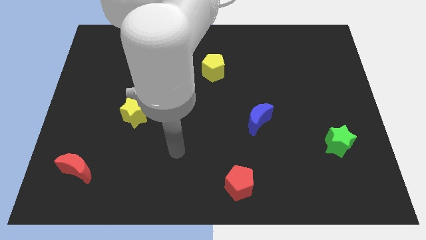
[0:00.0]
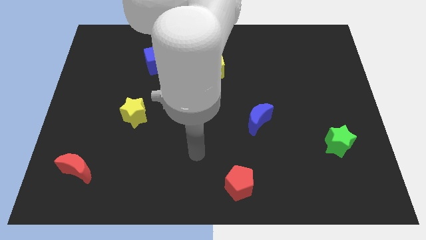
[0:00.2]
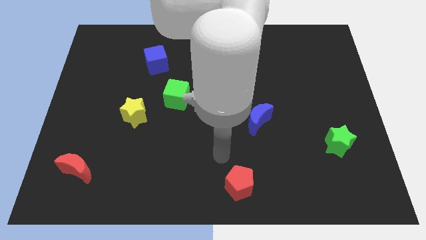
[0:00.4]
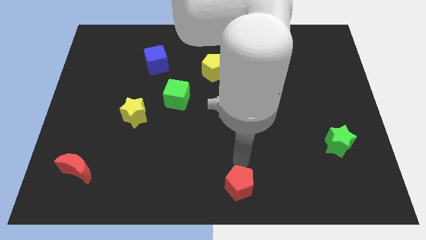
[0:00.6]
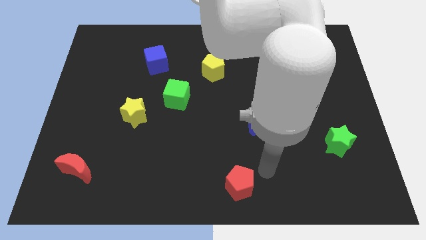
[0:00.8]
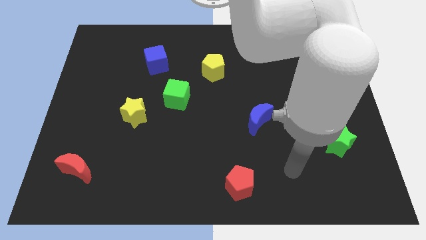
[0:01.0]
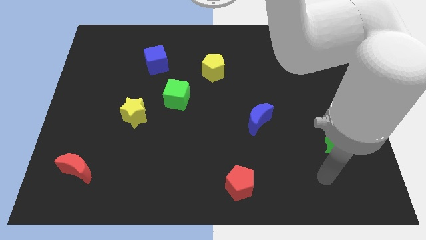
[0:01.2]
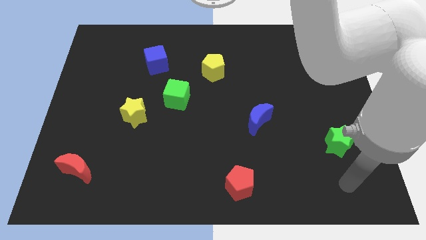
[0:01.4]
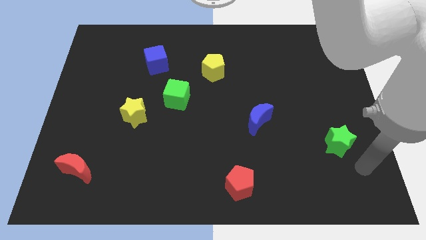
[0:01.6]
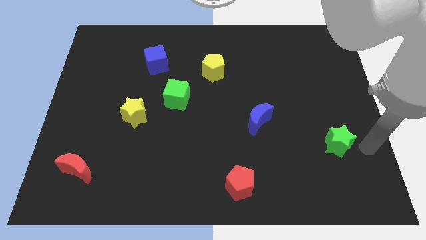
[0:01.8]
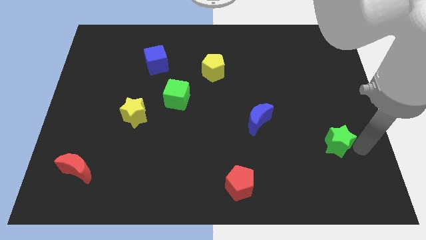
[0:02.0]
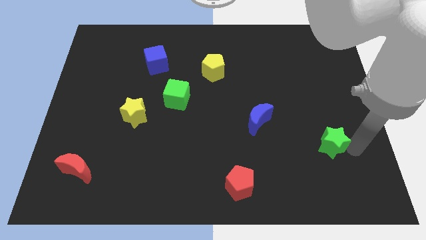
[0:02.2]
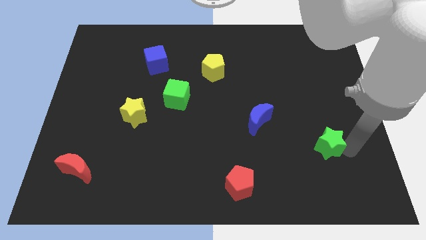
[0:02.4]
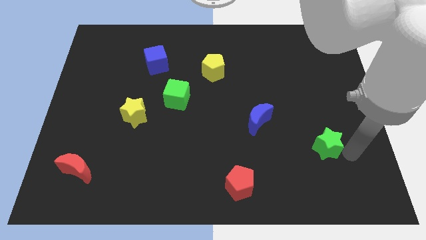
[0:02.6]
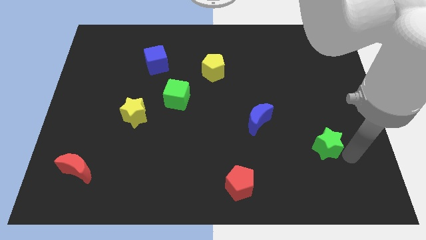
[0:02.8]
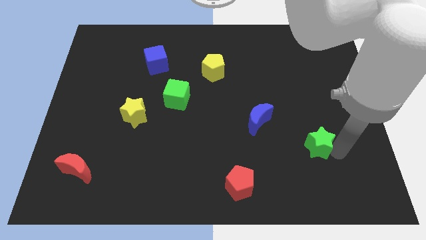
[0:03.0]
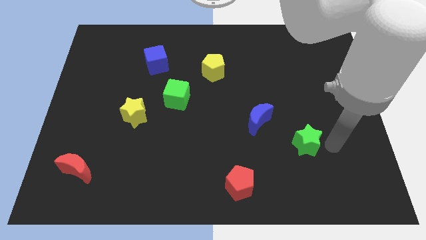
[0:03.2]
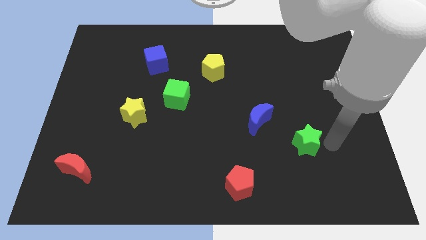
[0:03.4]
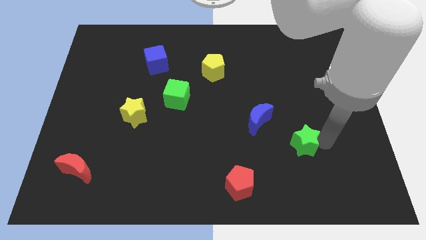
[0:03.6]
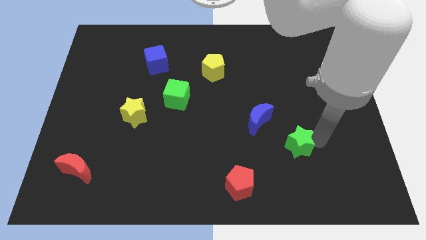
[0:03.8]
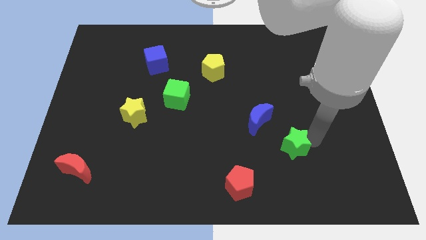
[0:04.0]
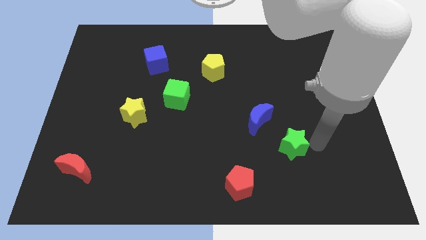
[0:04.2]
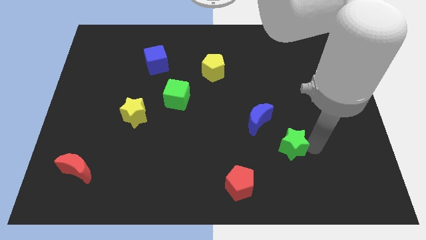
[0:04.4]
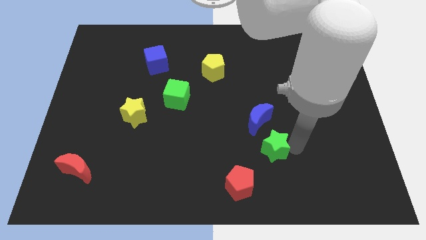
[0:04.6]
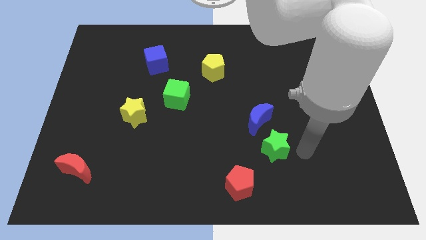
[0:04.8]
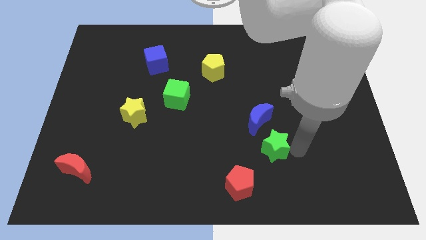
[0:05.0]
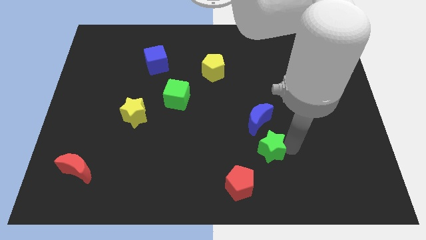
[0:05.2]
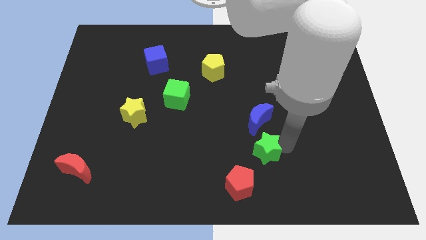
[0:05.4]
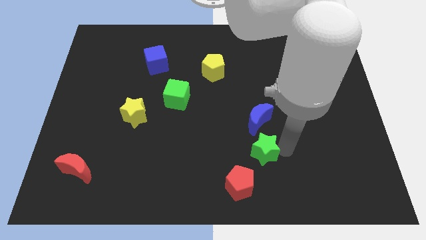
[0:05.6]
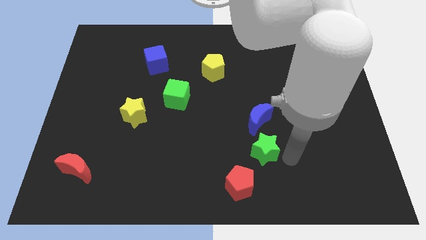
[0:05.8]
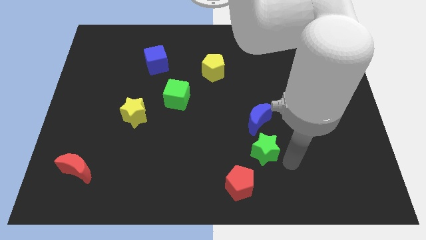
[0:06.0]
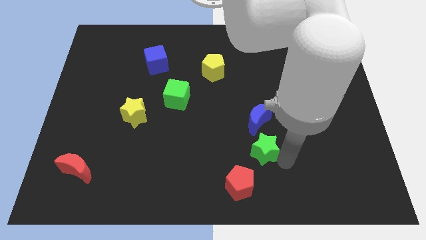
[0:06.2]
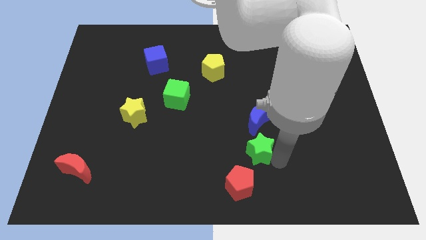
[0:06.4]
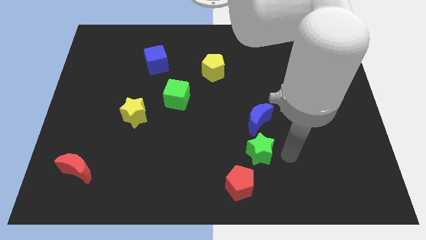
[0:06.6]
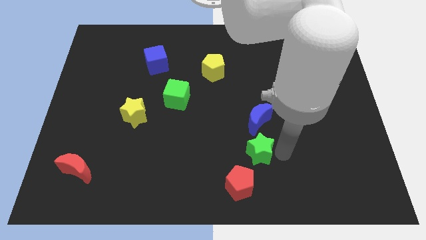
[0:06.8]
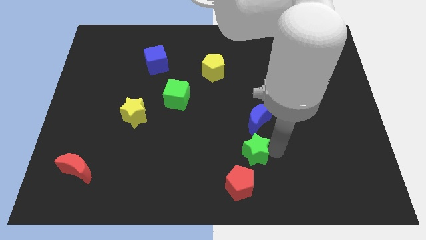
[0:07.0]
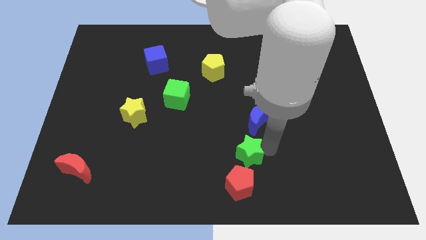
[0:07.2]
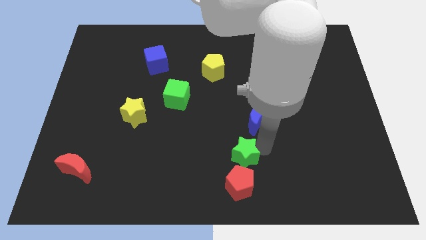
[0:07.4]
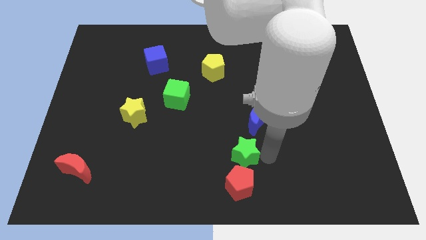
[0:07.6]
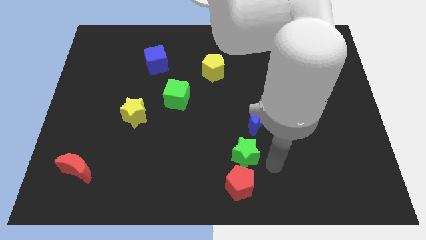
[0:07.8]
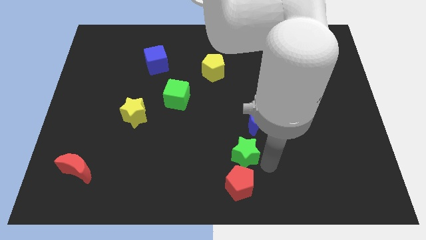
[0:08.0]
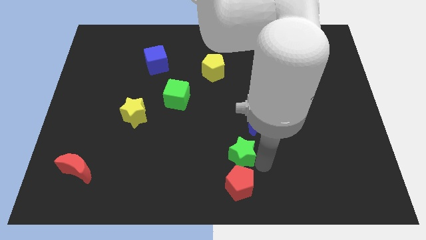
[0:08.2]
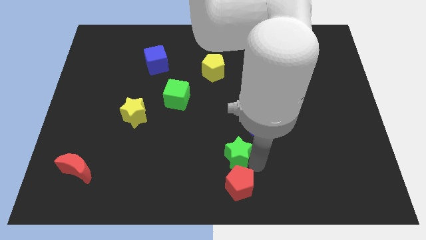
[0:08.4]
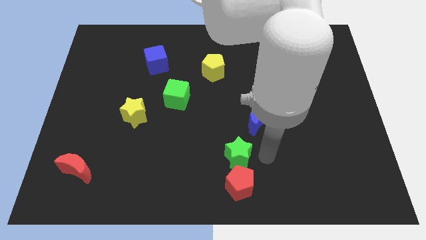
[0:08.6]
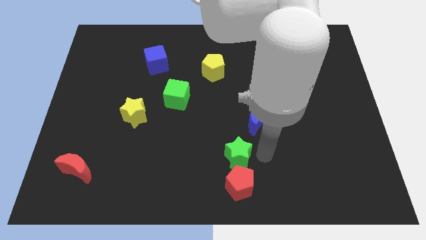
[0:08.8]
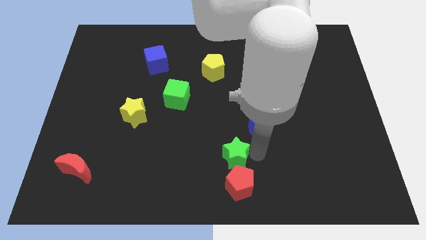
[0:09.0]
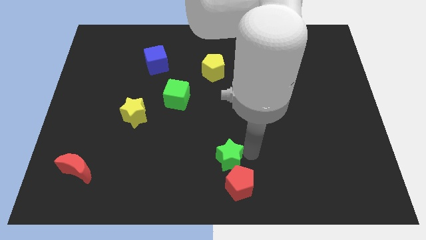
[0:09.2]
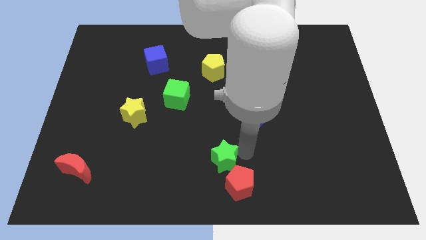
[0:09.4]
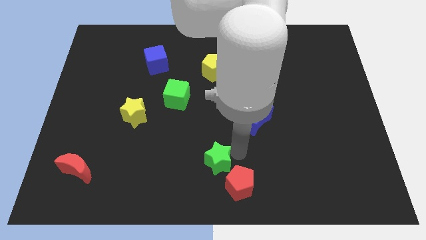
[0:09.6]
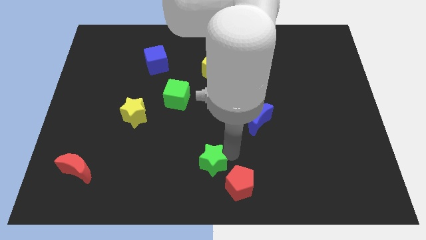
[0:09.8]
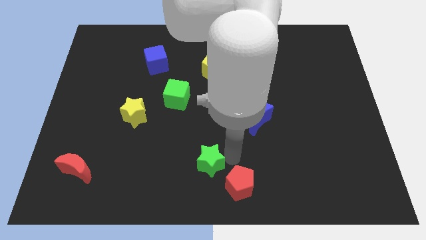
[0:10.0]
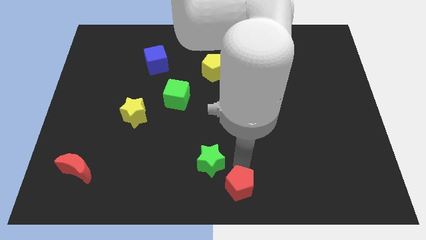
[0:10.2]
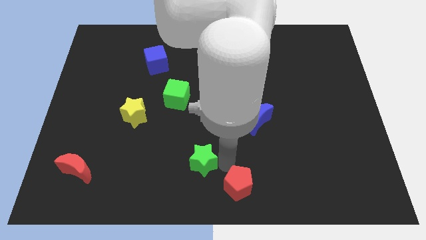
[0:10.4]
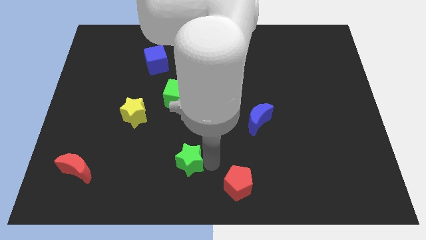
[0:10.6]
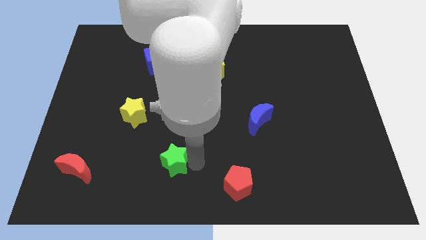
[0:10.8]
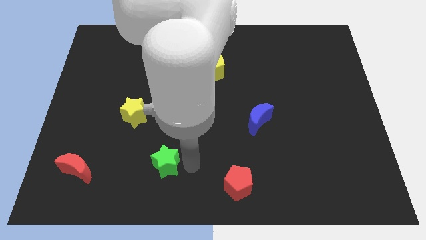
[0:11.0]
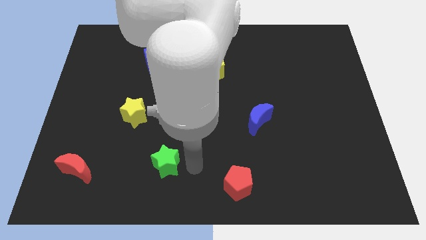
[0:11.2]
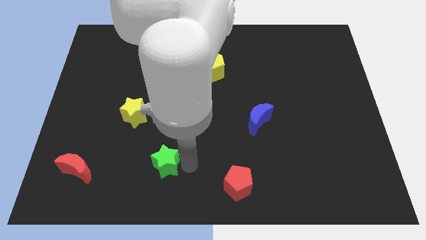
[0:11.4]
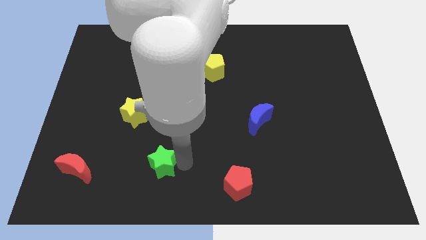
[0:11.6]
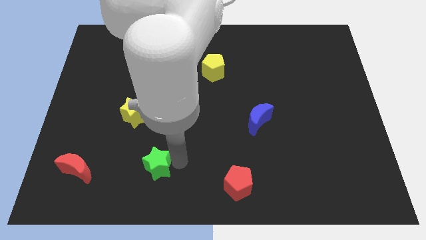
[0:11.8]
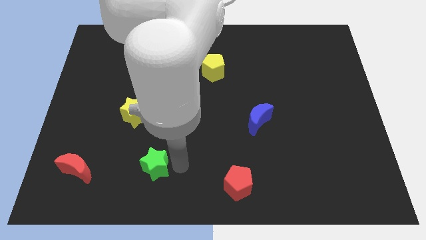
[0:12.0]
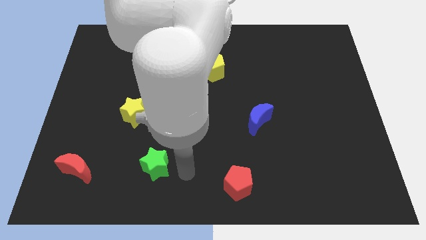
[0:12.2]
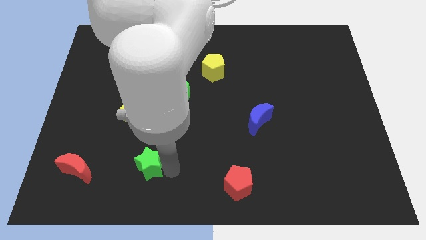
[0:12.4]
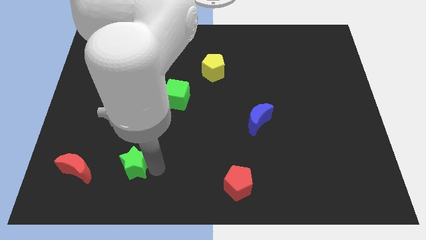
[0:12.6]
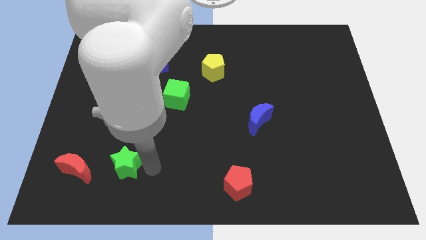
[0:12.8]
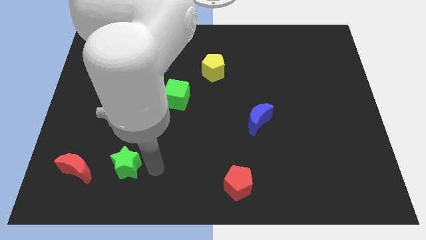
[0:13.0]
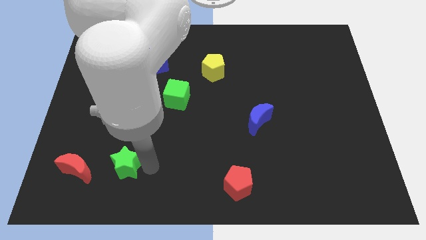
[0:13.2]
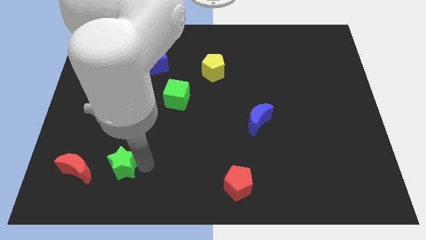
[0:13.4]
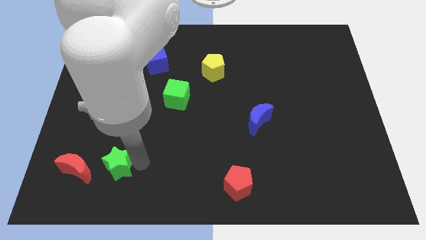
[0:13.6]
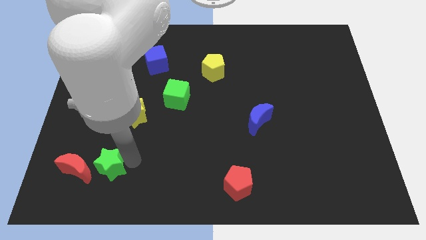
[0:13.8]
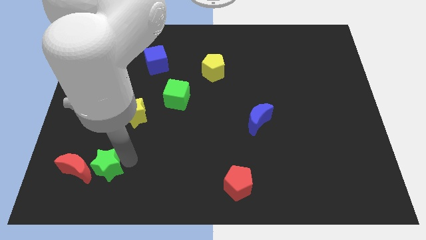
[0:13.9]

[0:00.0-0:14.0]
slide the green star next to the red moon

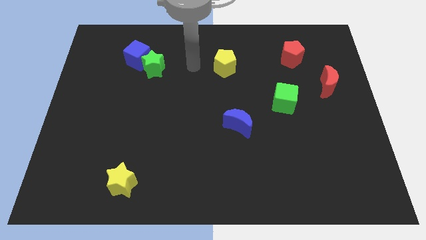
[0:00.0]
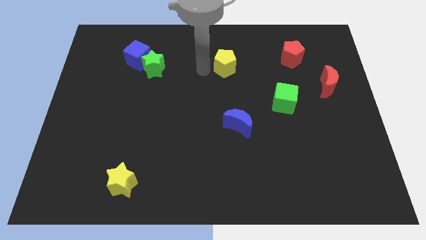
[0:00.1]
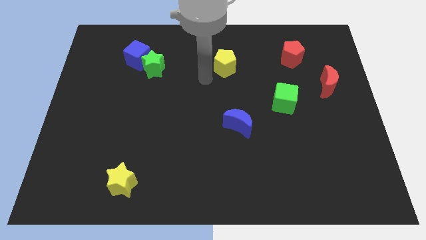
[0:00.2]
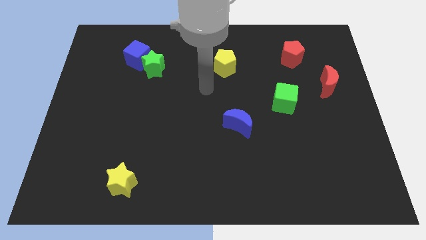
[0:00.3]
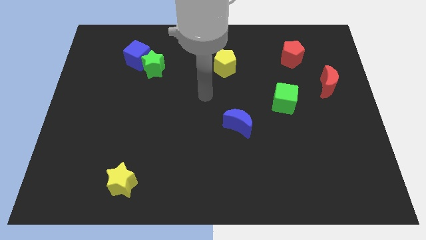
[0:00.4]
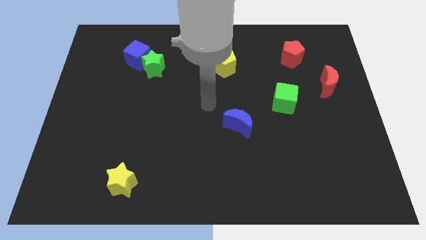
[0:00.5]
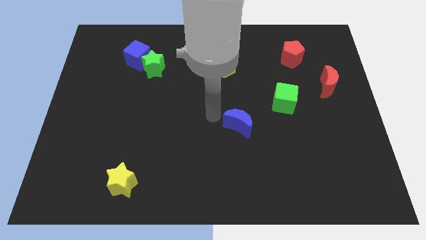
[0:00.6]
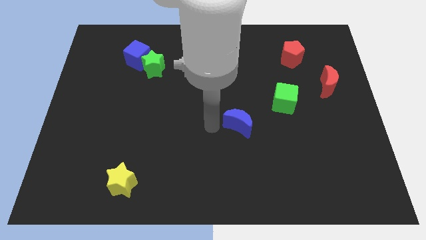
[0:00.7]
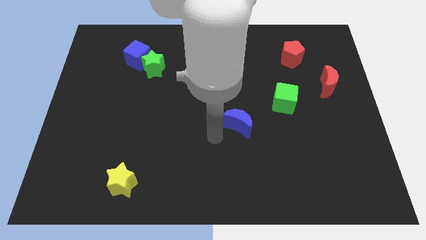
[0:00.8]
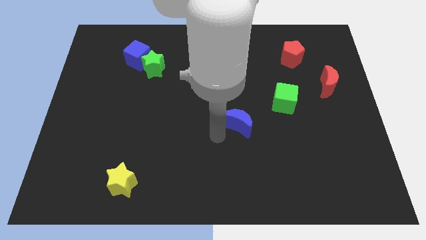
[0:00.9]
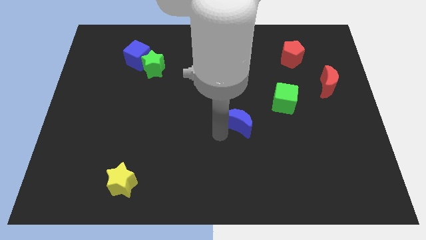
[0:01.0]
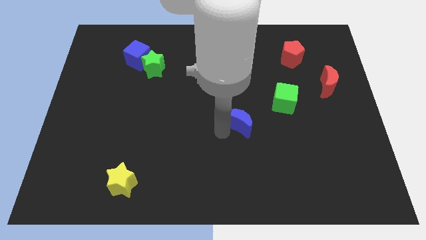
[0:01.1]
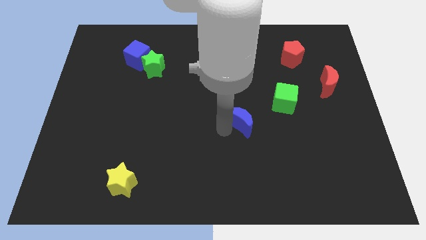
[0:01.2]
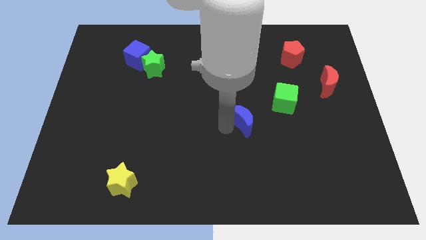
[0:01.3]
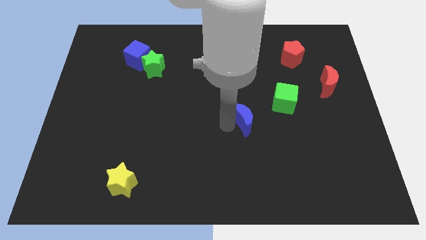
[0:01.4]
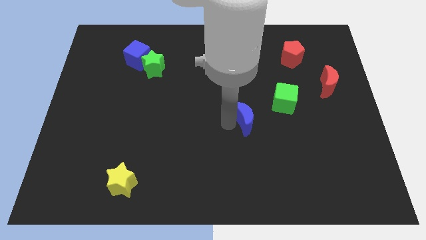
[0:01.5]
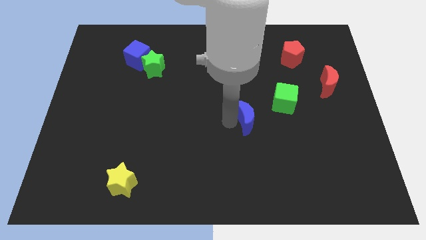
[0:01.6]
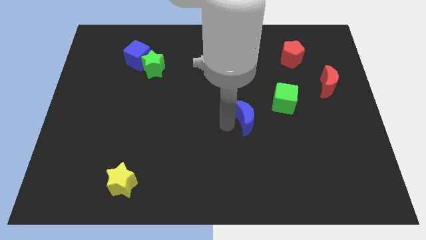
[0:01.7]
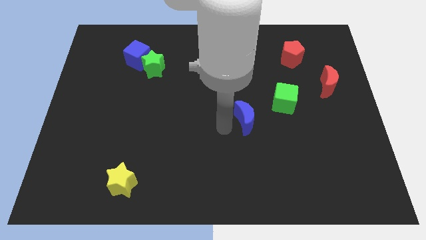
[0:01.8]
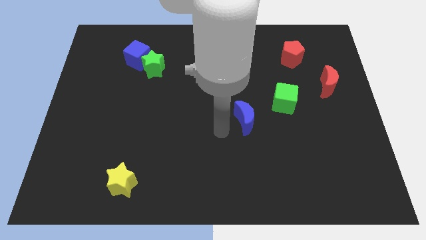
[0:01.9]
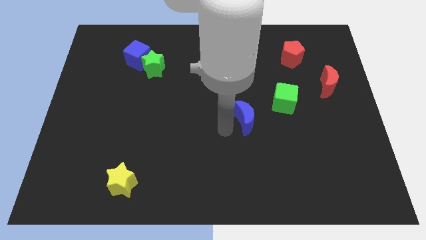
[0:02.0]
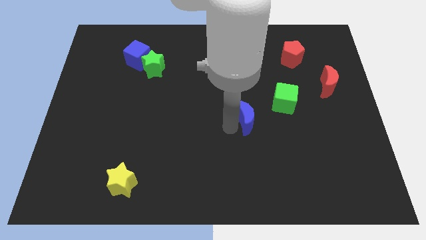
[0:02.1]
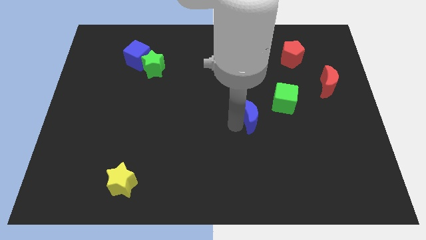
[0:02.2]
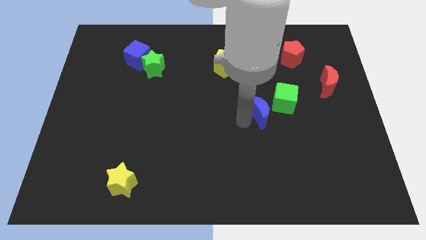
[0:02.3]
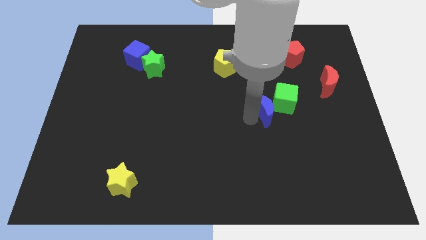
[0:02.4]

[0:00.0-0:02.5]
slide the blue moon to the green cube
